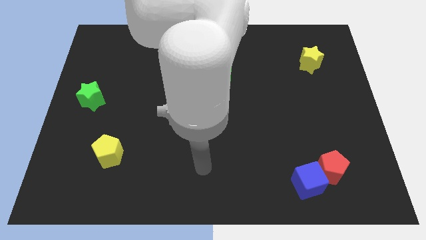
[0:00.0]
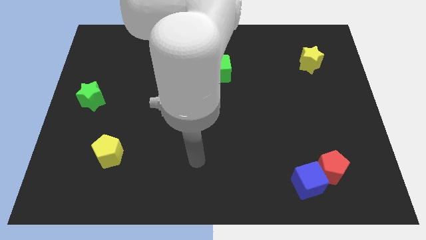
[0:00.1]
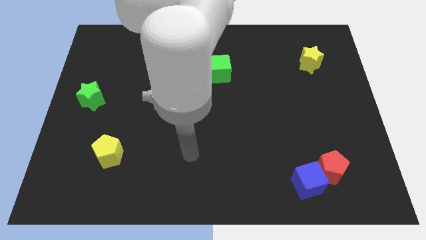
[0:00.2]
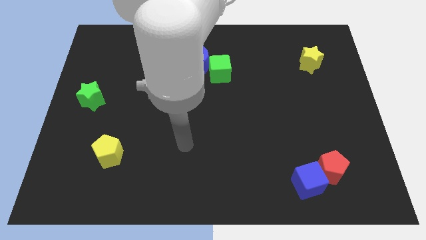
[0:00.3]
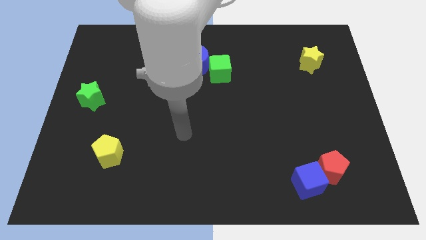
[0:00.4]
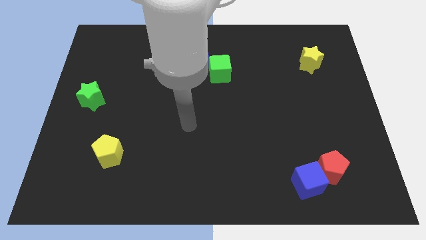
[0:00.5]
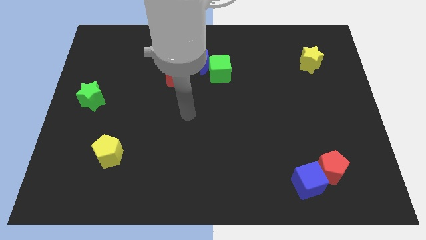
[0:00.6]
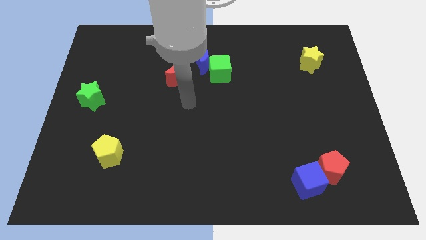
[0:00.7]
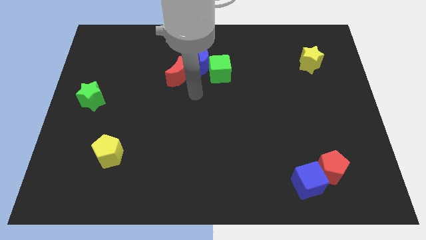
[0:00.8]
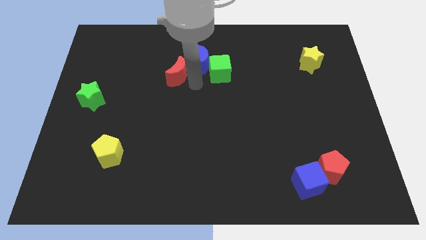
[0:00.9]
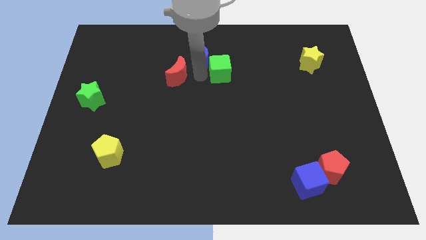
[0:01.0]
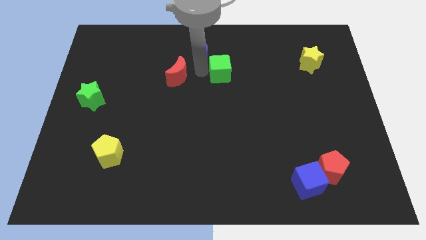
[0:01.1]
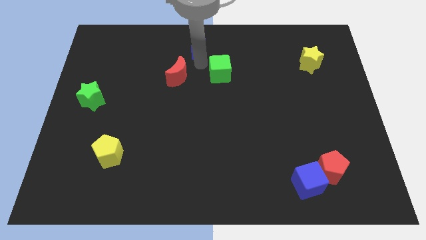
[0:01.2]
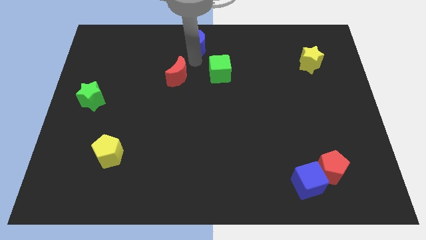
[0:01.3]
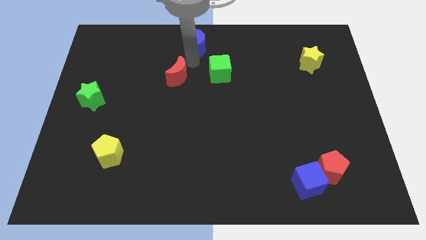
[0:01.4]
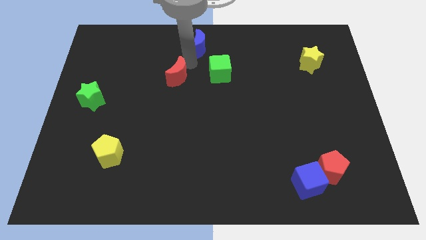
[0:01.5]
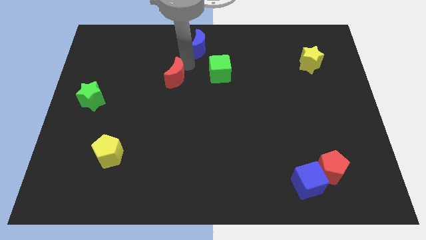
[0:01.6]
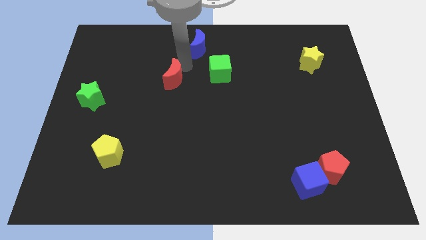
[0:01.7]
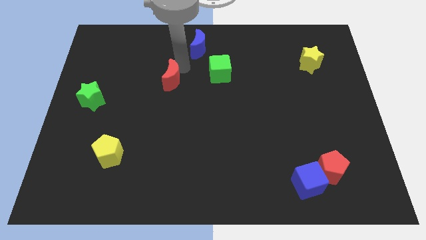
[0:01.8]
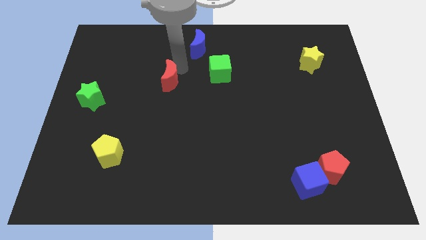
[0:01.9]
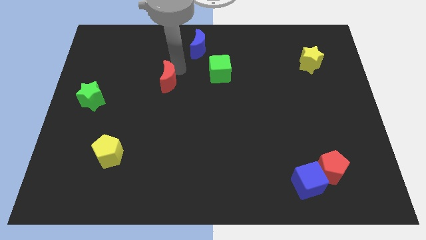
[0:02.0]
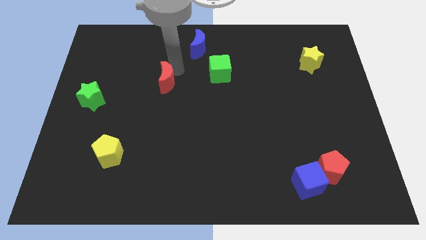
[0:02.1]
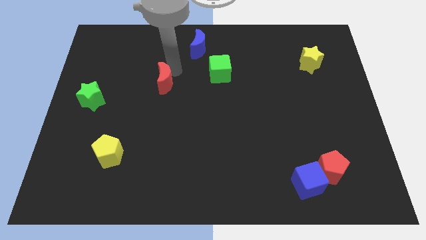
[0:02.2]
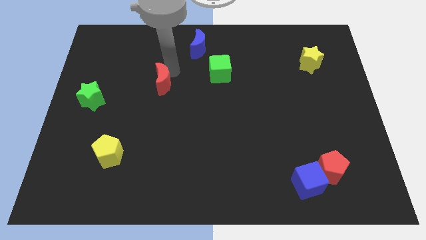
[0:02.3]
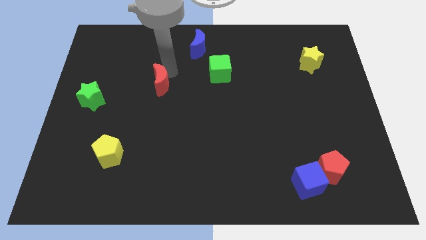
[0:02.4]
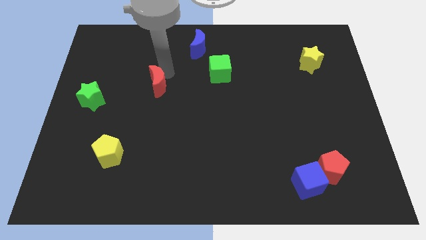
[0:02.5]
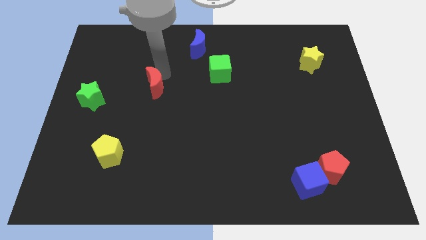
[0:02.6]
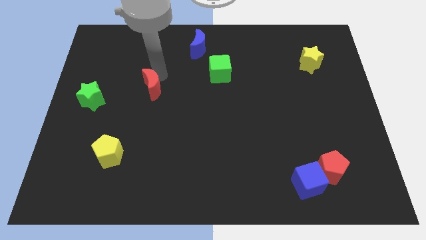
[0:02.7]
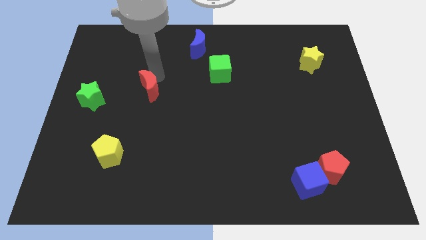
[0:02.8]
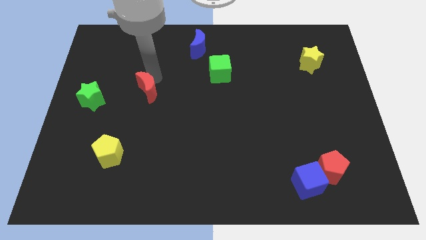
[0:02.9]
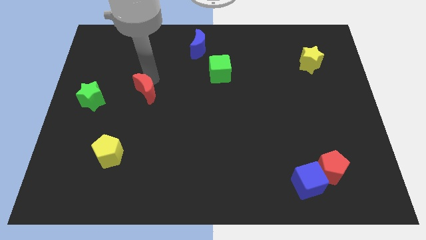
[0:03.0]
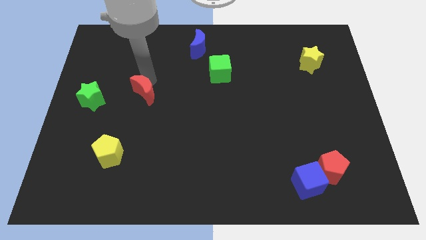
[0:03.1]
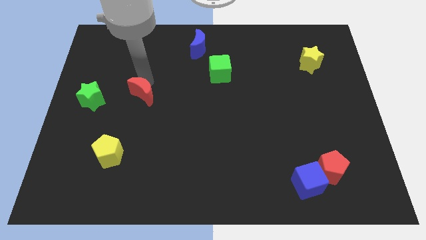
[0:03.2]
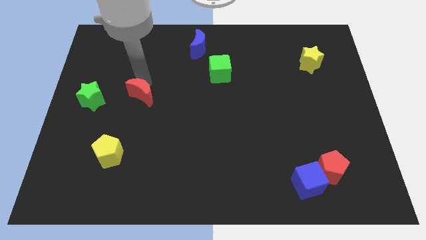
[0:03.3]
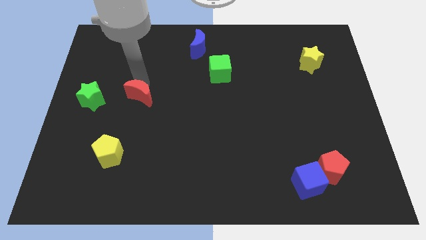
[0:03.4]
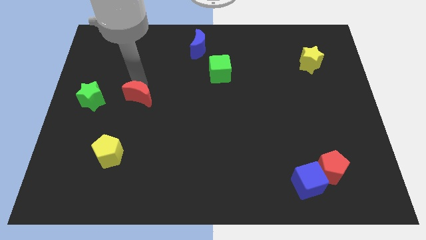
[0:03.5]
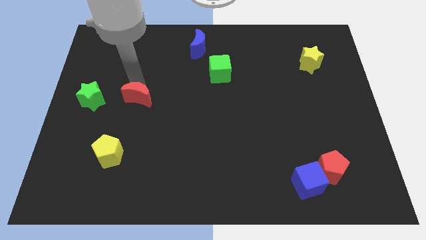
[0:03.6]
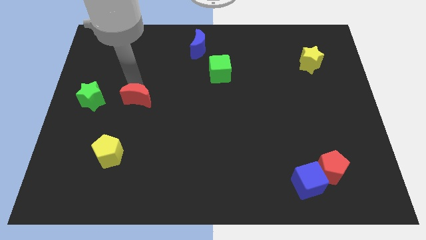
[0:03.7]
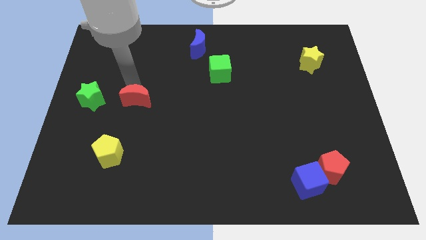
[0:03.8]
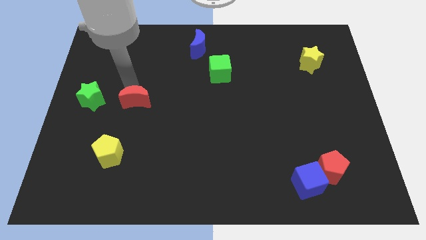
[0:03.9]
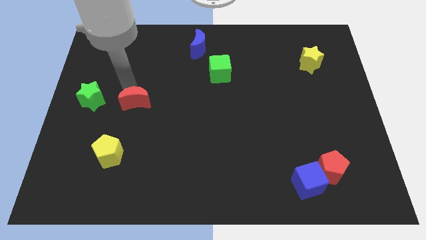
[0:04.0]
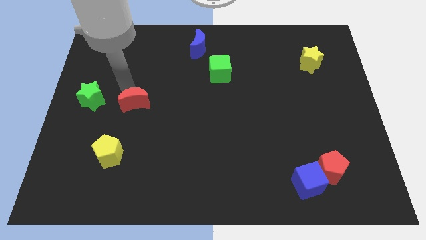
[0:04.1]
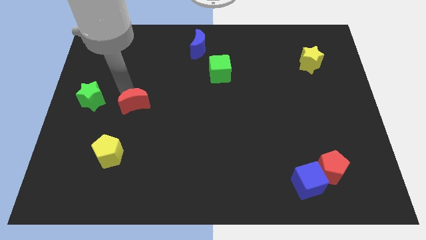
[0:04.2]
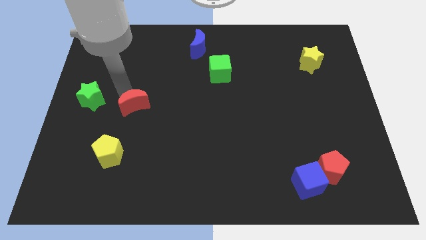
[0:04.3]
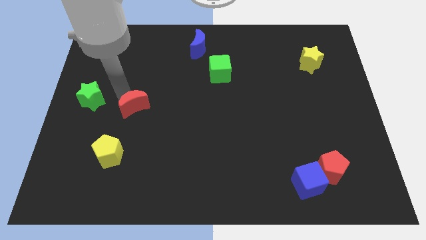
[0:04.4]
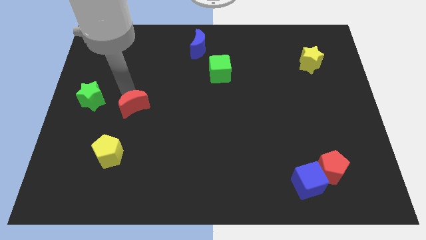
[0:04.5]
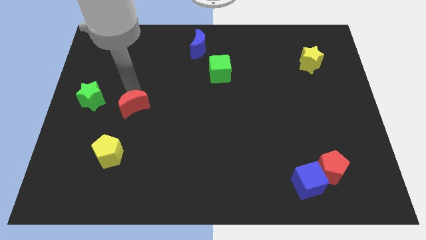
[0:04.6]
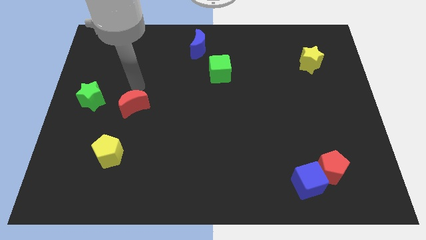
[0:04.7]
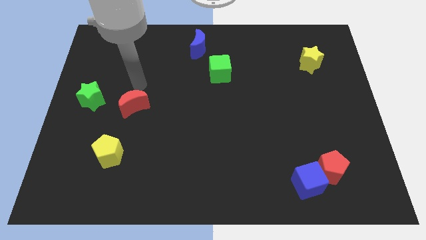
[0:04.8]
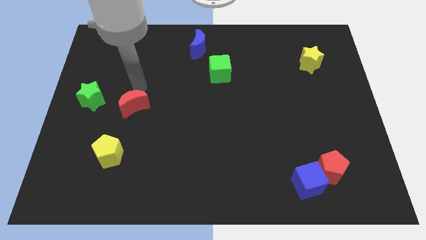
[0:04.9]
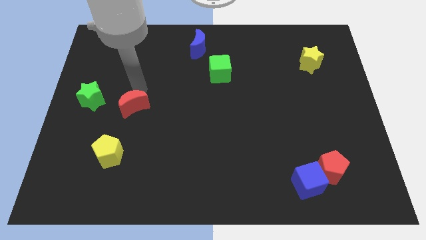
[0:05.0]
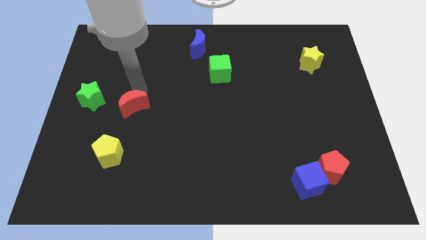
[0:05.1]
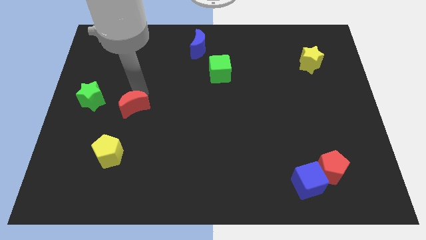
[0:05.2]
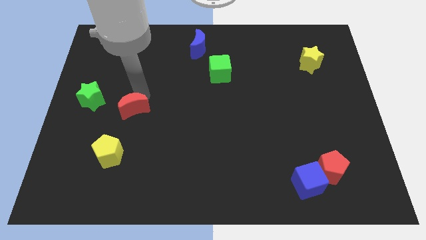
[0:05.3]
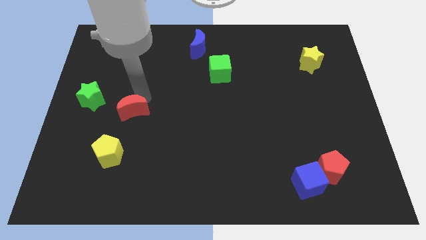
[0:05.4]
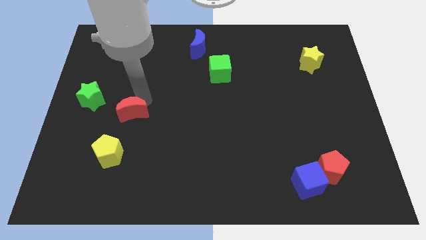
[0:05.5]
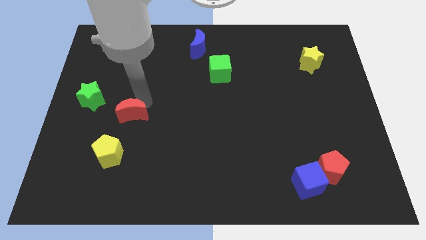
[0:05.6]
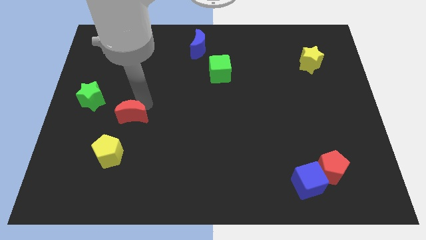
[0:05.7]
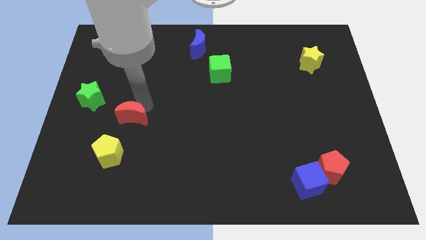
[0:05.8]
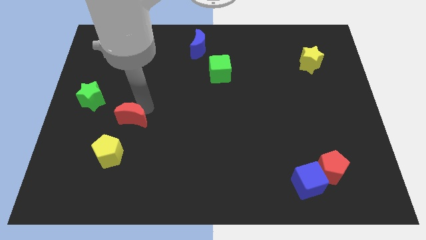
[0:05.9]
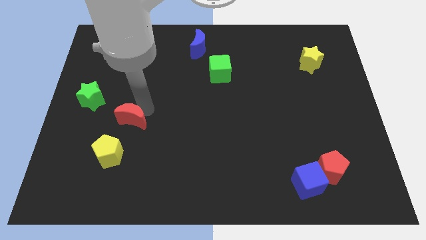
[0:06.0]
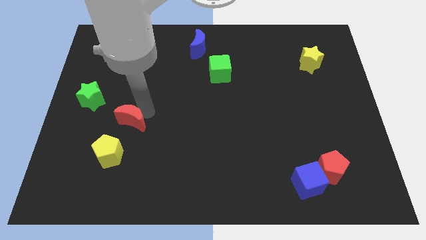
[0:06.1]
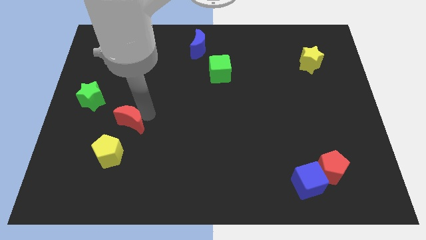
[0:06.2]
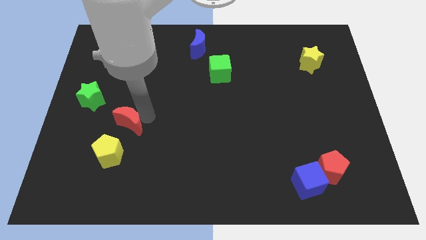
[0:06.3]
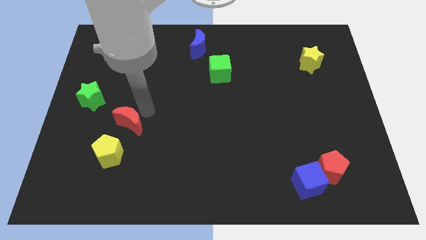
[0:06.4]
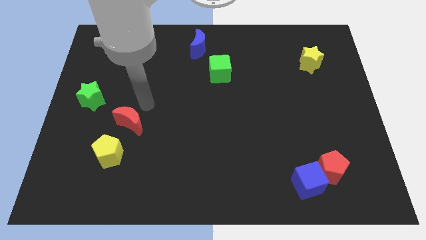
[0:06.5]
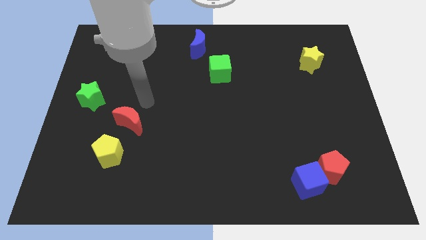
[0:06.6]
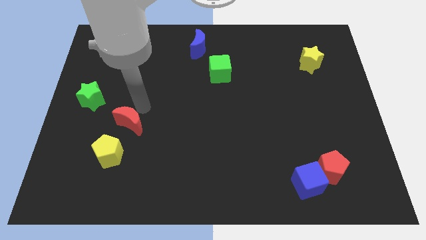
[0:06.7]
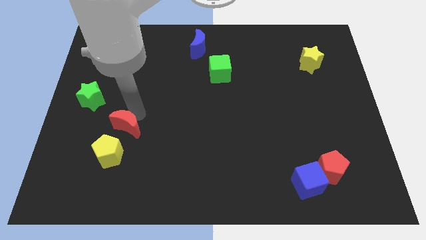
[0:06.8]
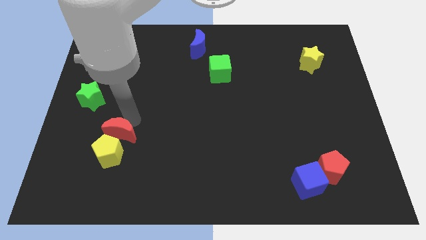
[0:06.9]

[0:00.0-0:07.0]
push the red moon towards the yellow pentagon
